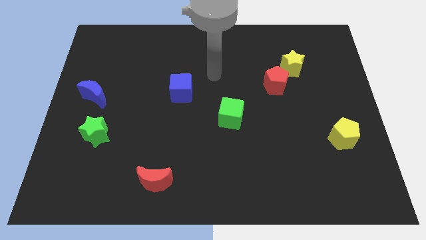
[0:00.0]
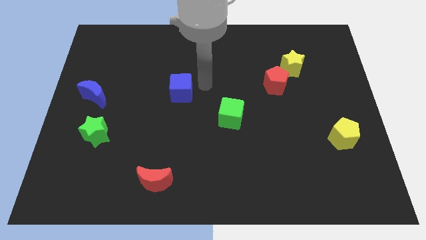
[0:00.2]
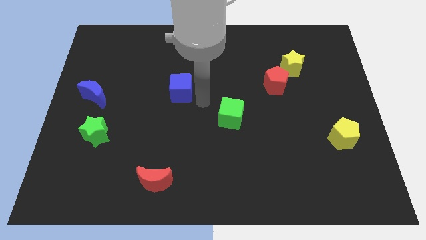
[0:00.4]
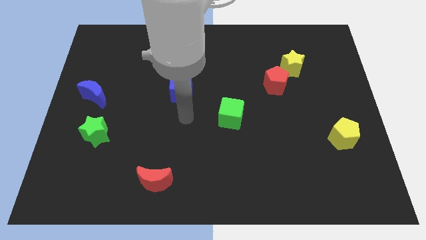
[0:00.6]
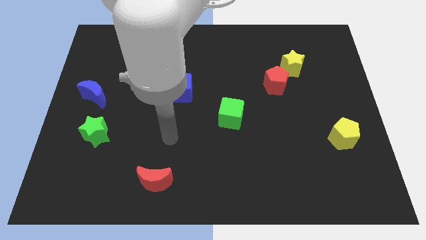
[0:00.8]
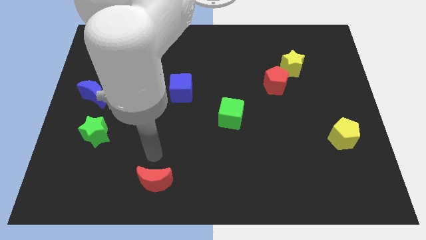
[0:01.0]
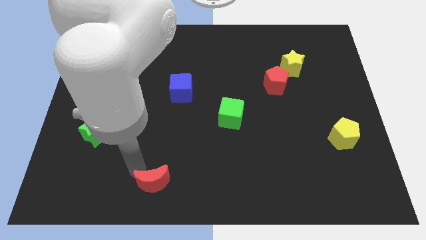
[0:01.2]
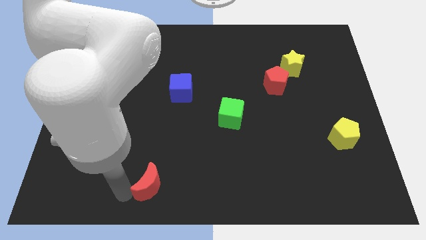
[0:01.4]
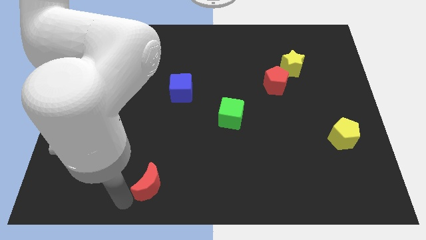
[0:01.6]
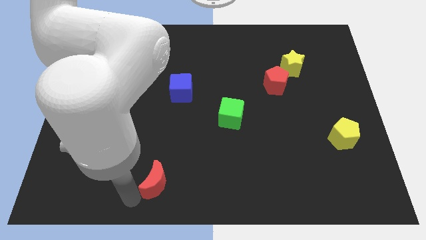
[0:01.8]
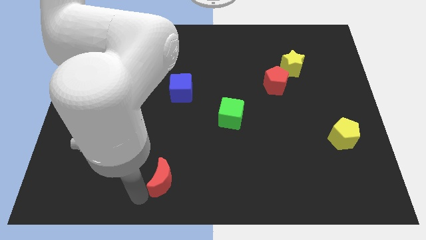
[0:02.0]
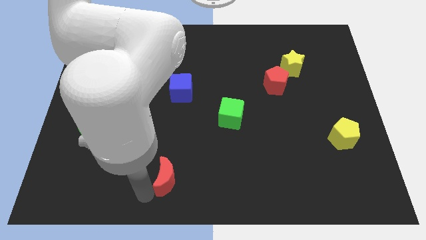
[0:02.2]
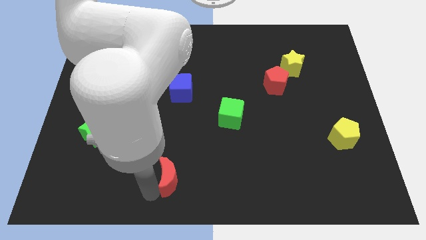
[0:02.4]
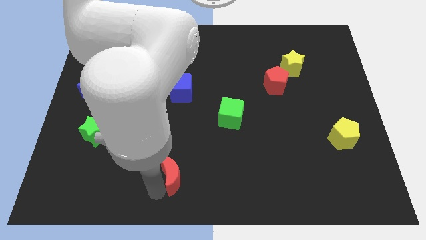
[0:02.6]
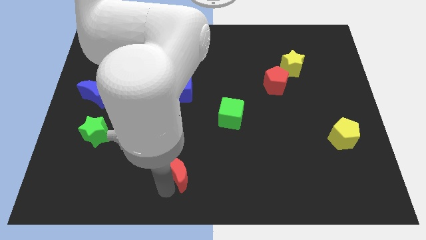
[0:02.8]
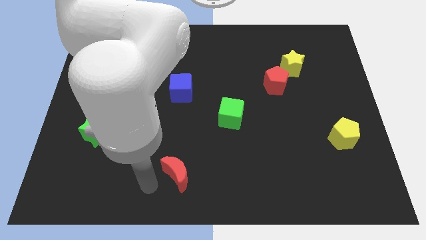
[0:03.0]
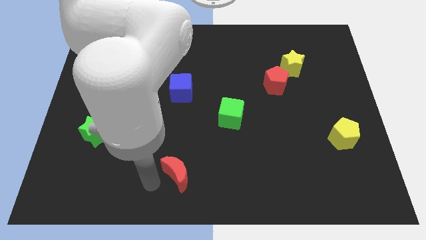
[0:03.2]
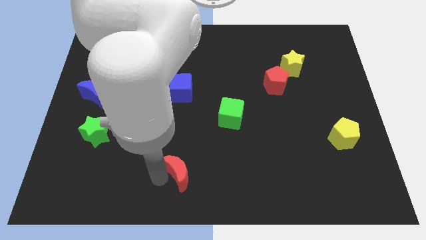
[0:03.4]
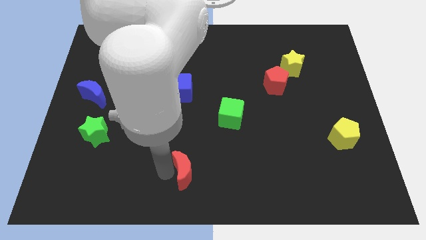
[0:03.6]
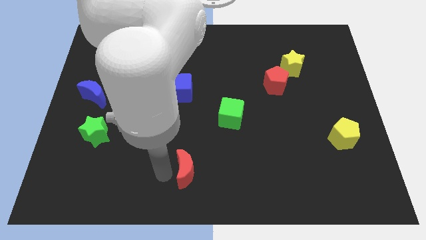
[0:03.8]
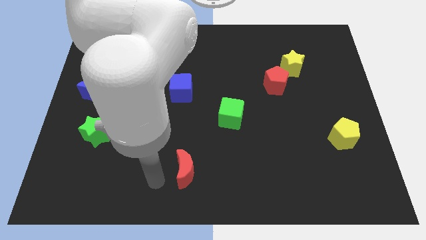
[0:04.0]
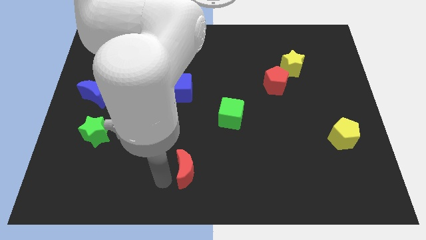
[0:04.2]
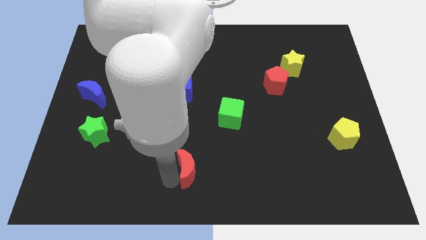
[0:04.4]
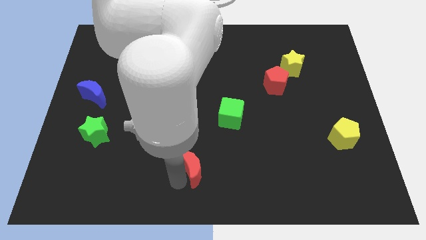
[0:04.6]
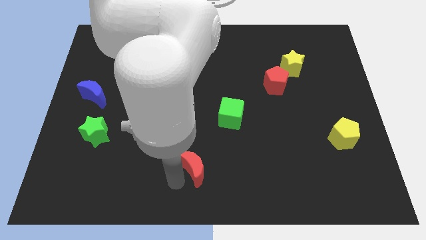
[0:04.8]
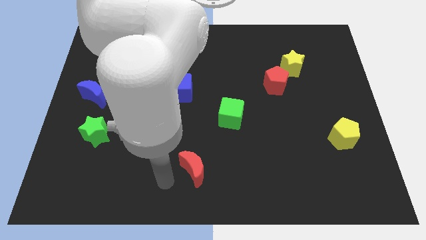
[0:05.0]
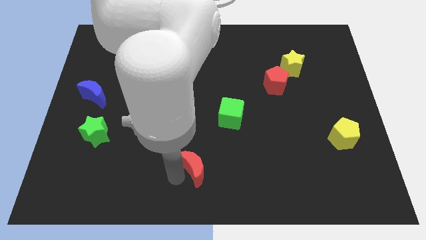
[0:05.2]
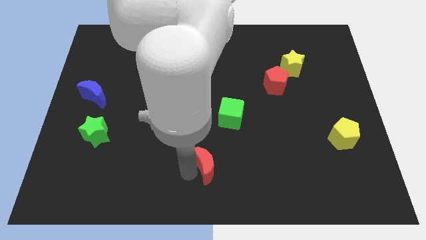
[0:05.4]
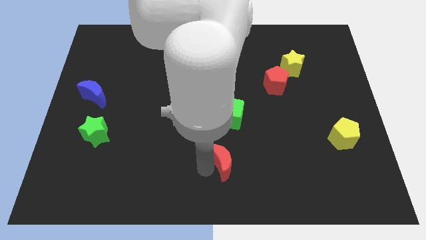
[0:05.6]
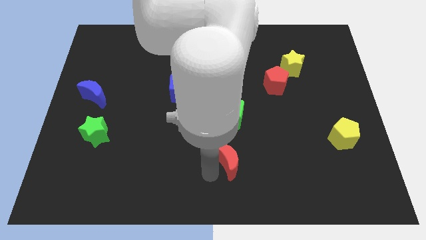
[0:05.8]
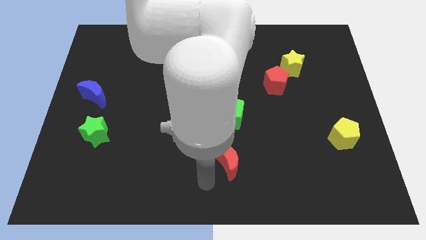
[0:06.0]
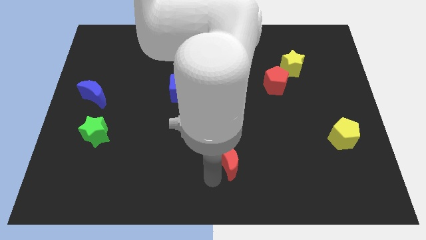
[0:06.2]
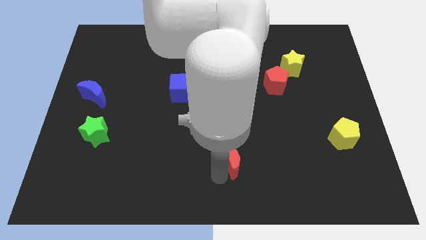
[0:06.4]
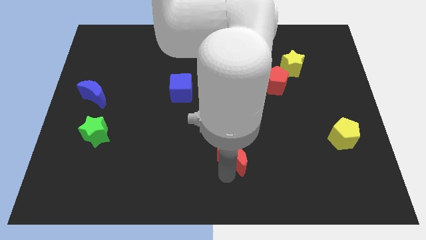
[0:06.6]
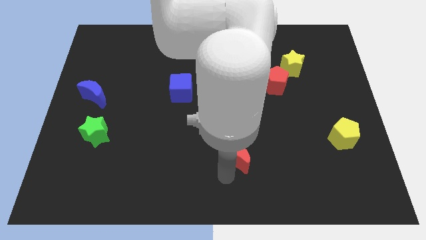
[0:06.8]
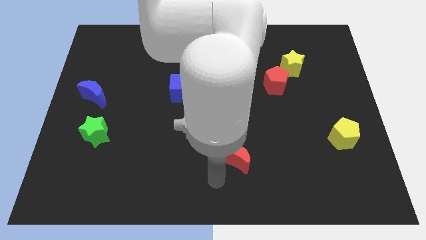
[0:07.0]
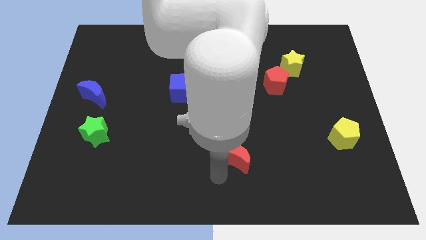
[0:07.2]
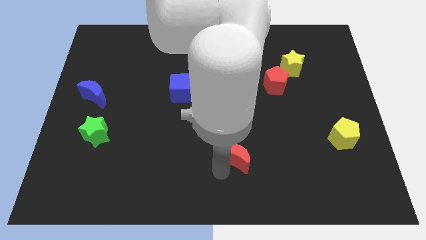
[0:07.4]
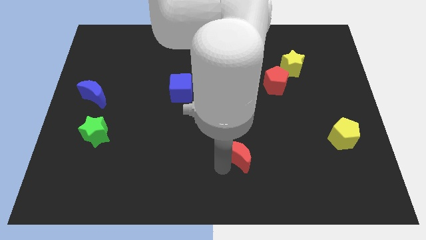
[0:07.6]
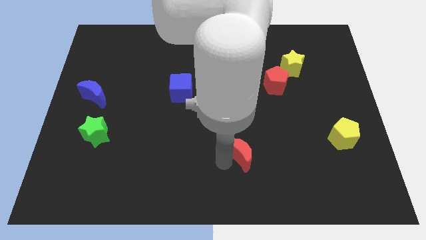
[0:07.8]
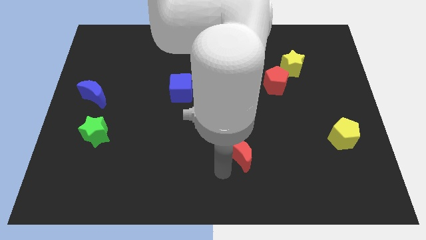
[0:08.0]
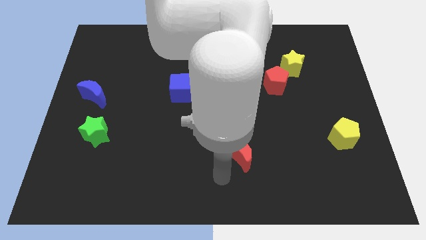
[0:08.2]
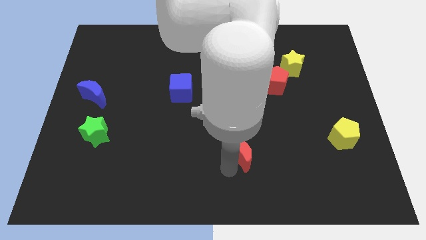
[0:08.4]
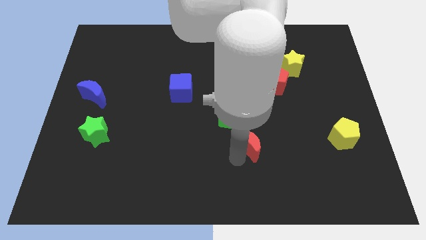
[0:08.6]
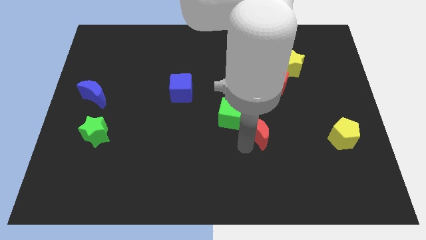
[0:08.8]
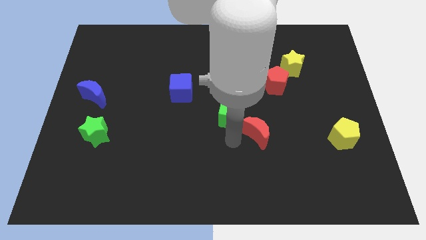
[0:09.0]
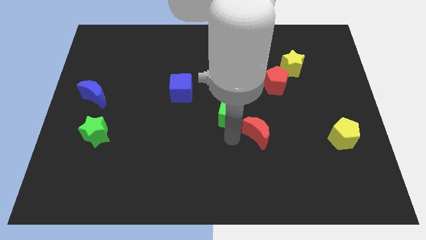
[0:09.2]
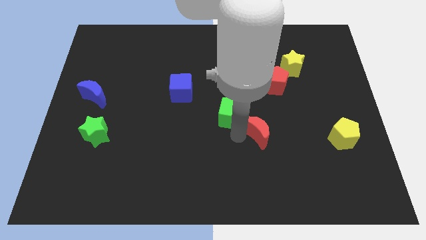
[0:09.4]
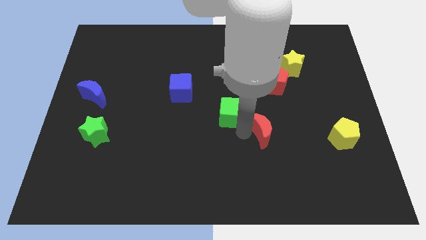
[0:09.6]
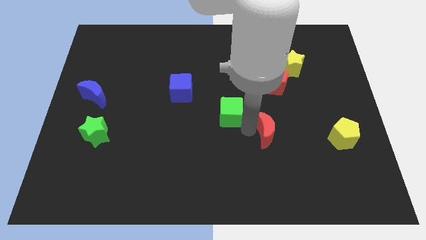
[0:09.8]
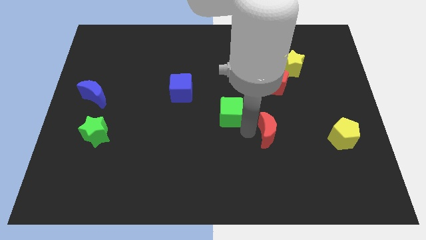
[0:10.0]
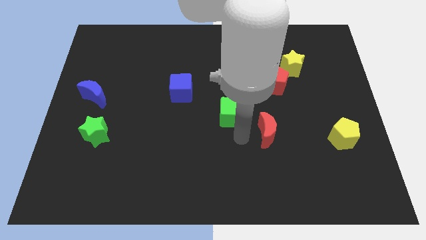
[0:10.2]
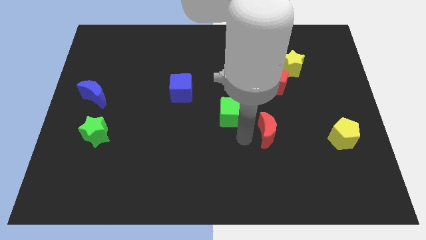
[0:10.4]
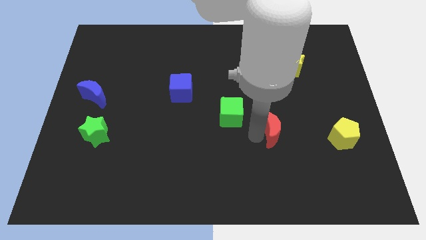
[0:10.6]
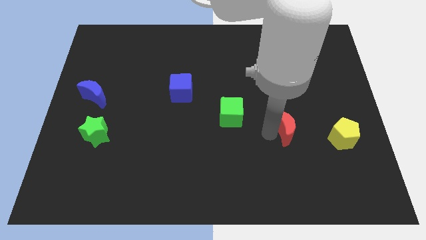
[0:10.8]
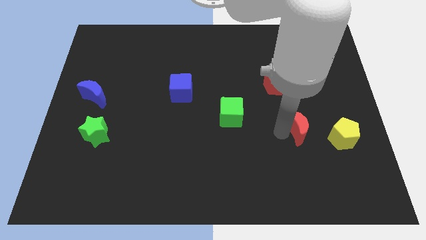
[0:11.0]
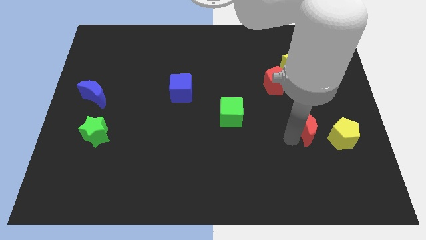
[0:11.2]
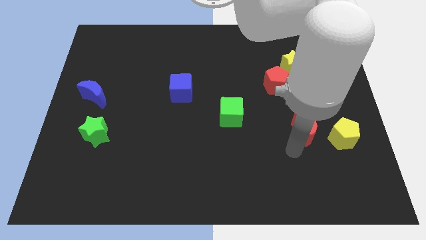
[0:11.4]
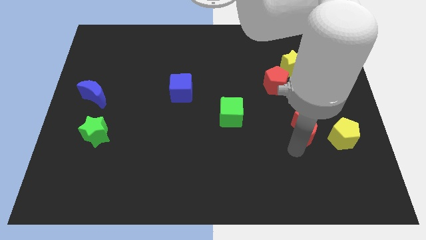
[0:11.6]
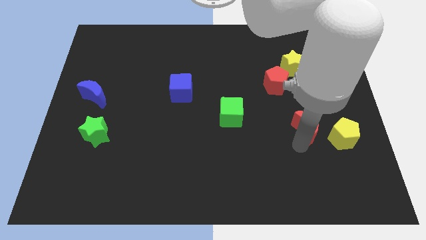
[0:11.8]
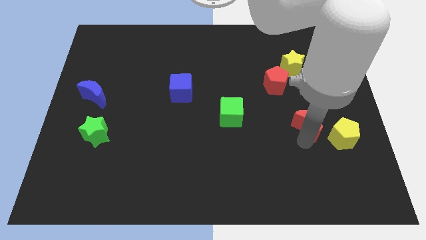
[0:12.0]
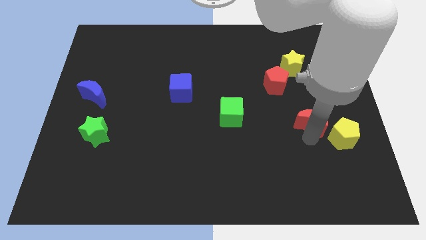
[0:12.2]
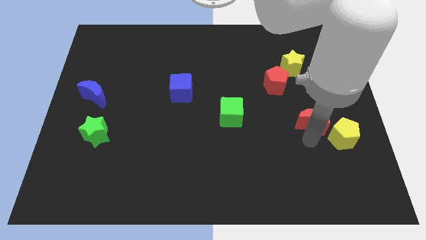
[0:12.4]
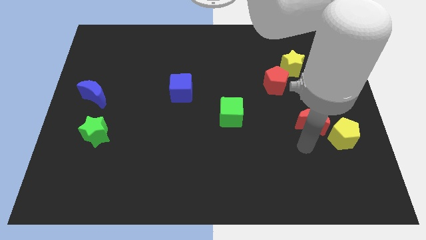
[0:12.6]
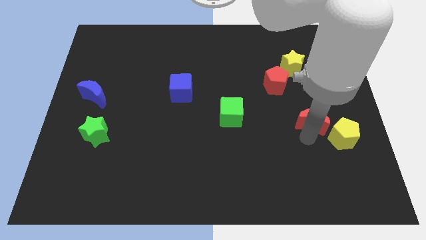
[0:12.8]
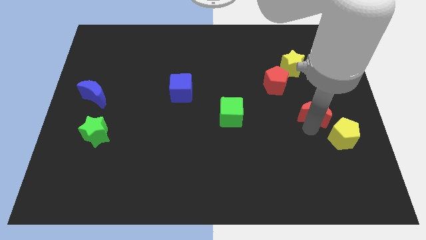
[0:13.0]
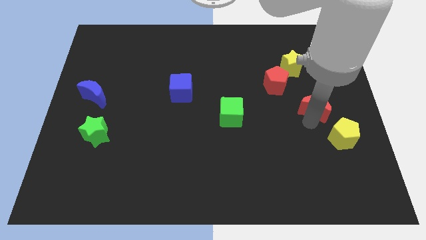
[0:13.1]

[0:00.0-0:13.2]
put the red moon above the yellow pentagon

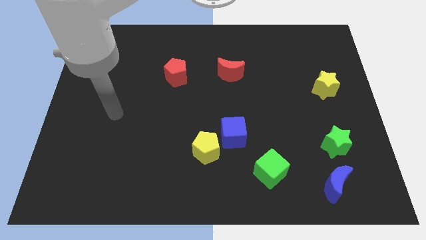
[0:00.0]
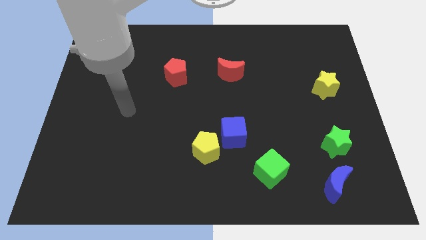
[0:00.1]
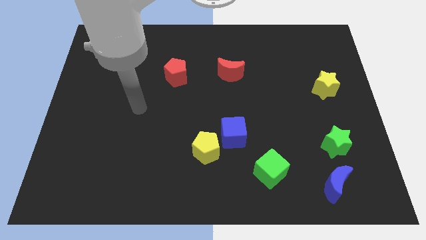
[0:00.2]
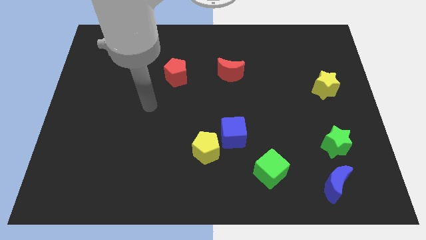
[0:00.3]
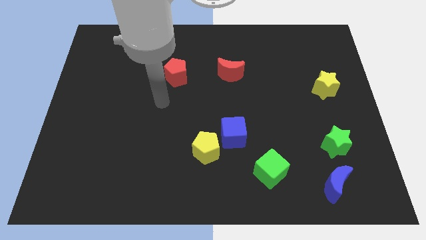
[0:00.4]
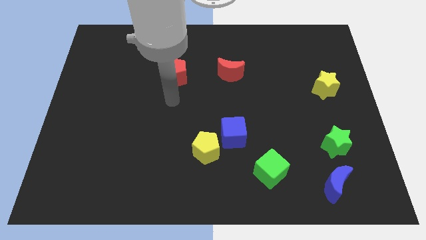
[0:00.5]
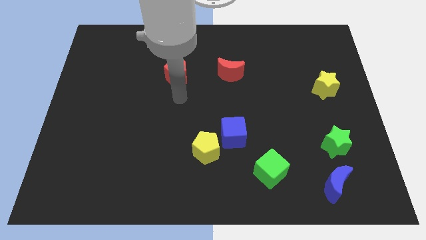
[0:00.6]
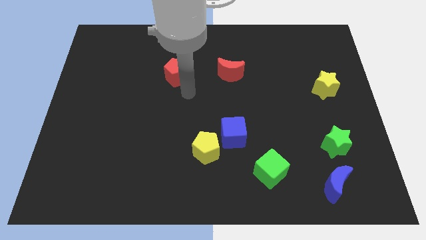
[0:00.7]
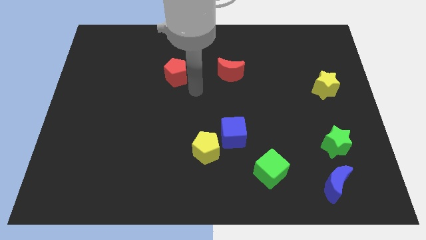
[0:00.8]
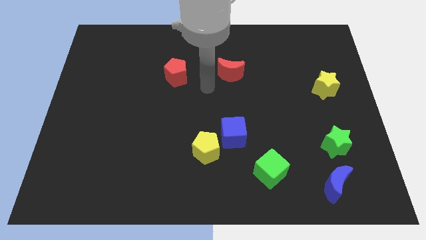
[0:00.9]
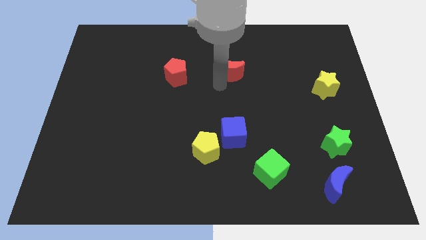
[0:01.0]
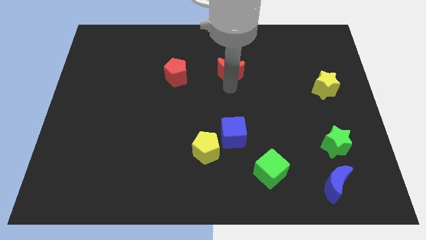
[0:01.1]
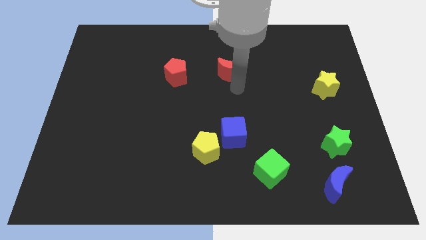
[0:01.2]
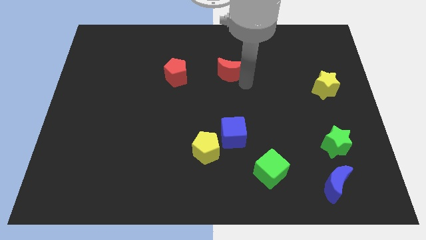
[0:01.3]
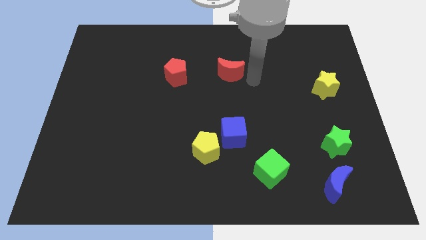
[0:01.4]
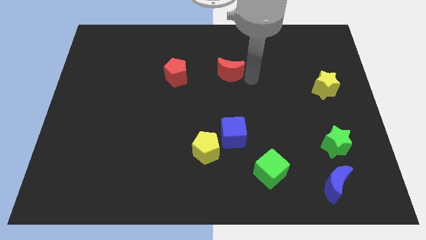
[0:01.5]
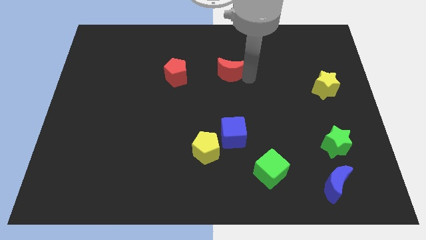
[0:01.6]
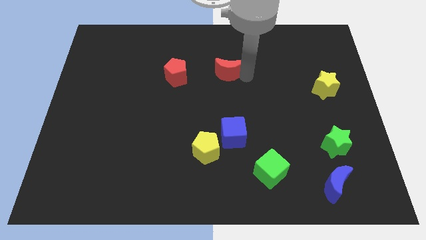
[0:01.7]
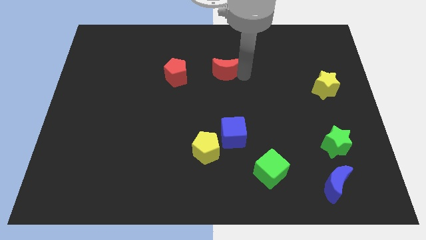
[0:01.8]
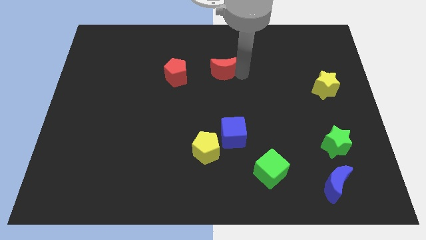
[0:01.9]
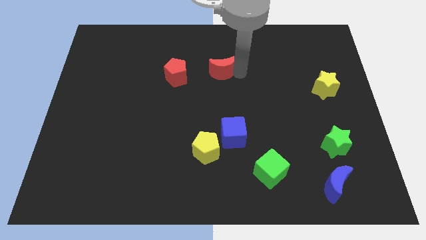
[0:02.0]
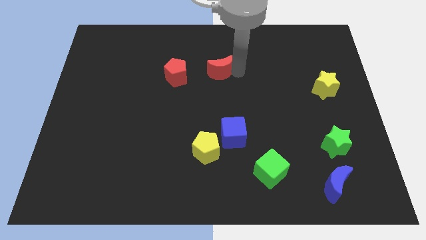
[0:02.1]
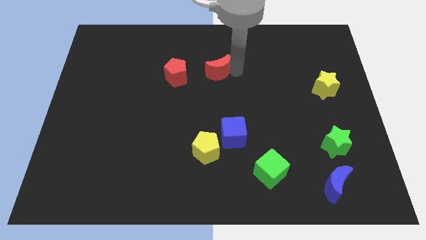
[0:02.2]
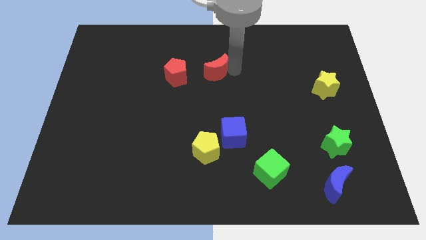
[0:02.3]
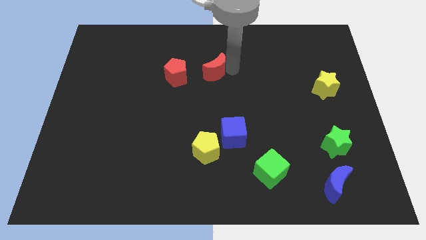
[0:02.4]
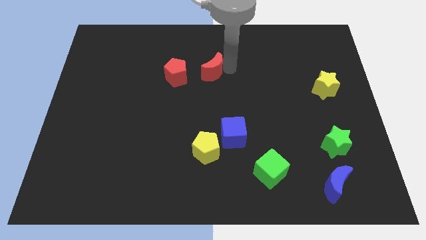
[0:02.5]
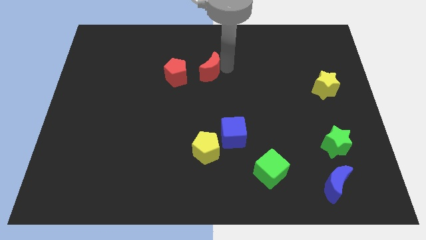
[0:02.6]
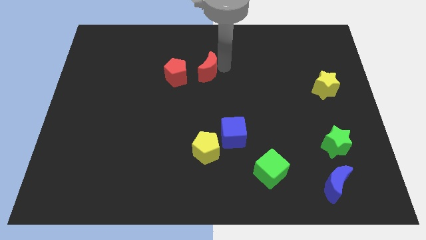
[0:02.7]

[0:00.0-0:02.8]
push the red moon to the top right of the red pentagon
